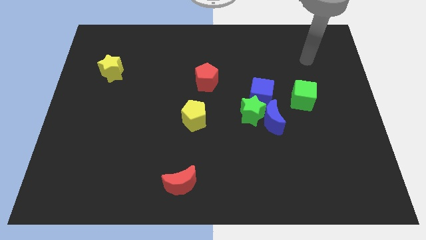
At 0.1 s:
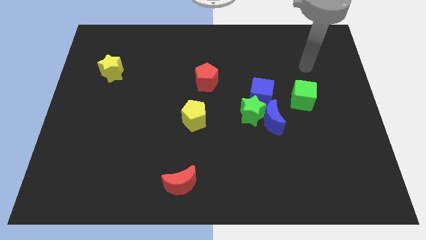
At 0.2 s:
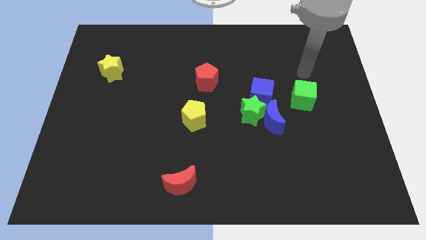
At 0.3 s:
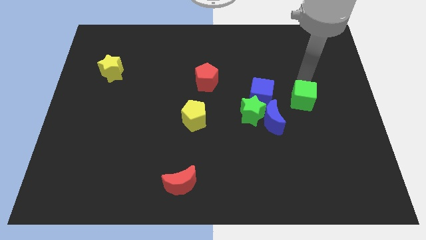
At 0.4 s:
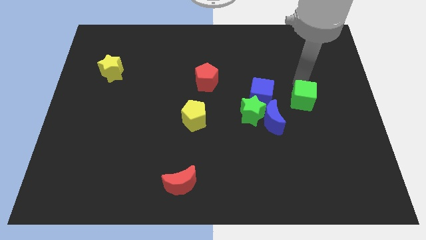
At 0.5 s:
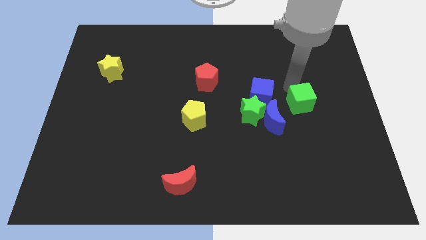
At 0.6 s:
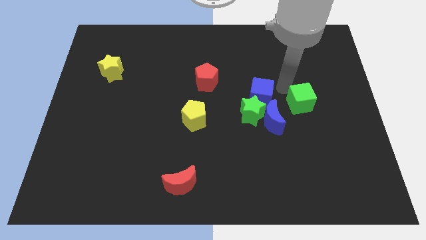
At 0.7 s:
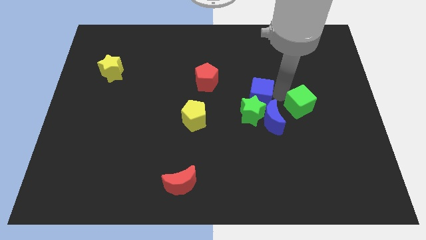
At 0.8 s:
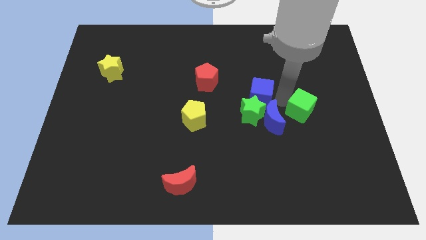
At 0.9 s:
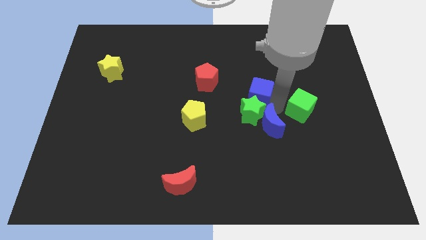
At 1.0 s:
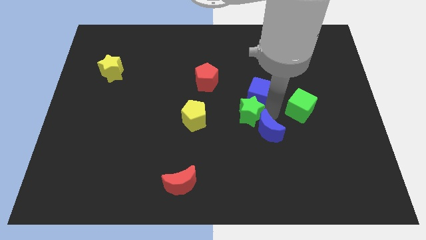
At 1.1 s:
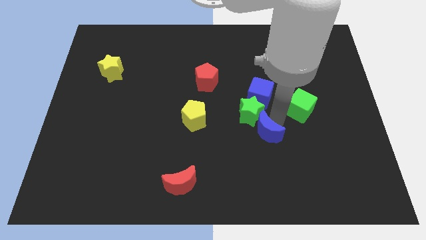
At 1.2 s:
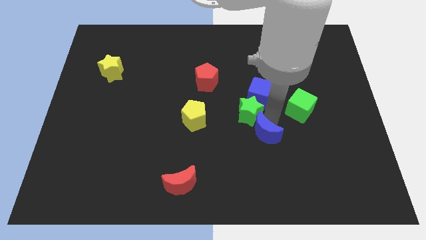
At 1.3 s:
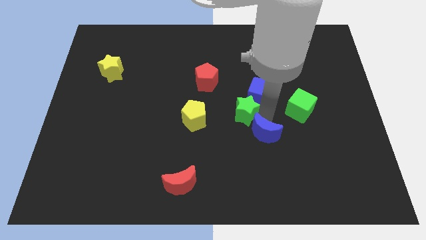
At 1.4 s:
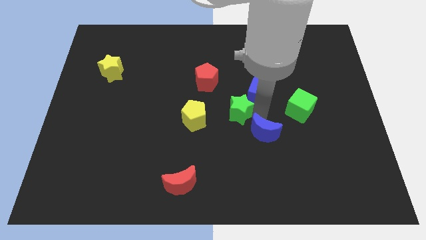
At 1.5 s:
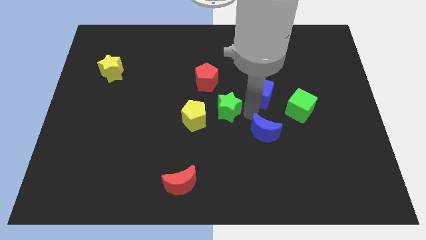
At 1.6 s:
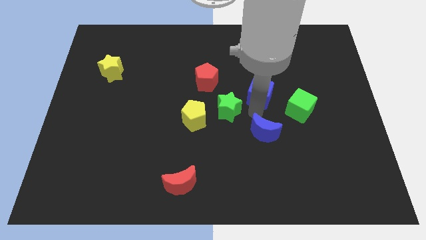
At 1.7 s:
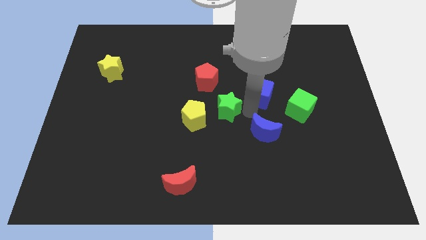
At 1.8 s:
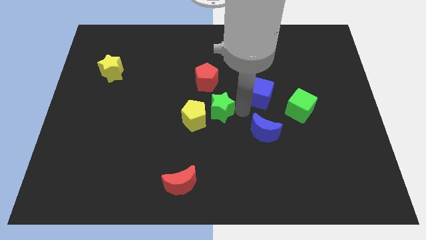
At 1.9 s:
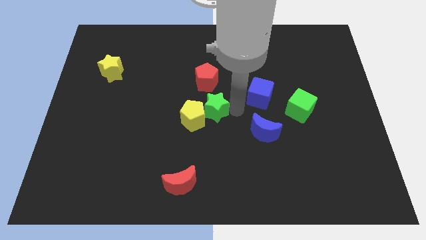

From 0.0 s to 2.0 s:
separate the green star from the blue moon and blue cube

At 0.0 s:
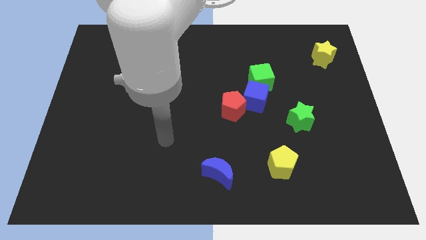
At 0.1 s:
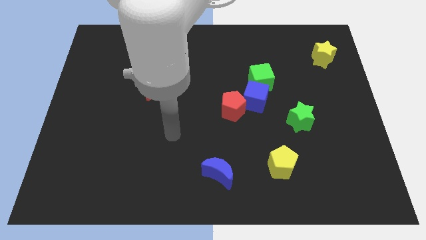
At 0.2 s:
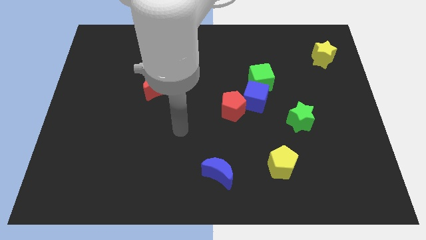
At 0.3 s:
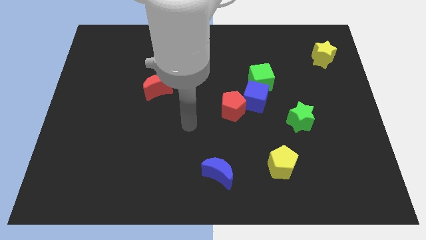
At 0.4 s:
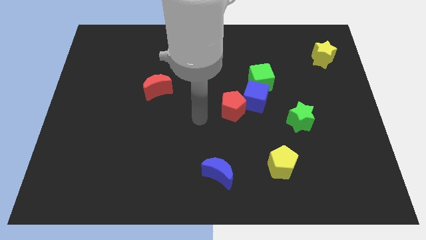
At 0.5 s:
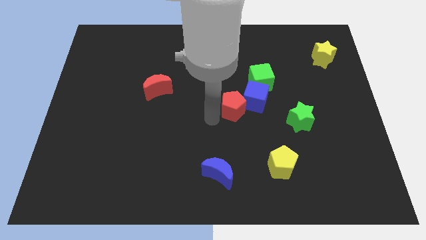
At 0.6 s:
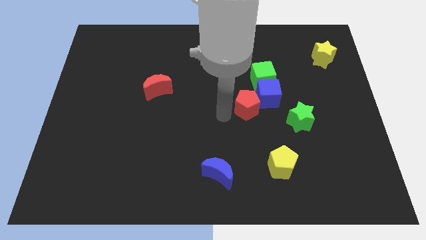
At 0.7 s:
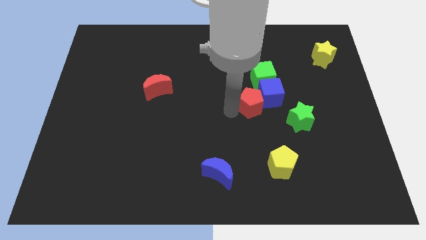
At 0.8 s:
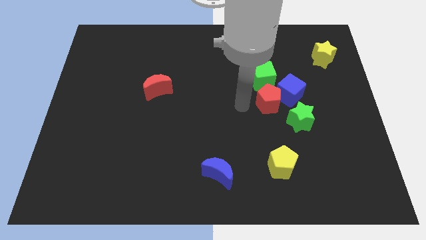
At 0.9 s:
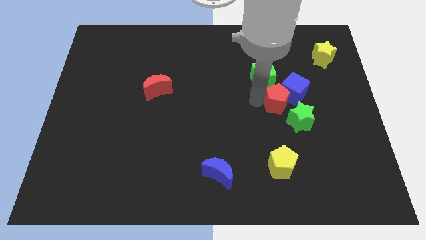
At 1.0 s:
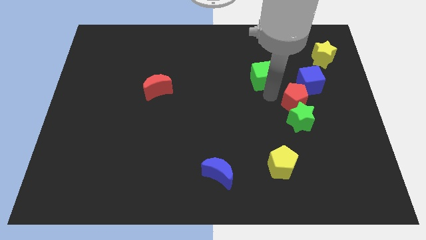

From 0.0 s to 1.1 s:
separate the green cube from the blue cube

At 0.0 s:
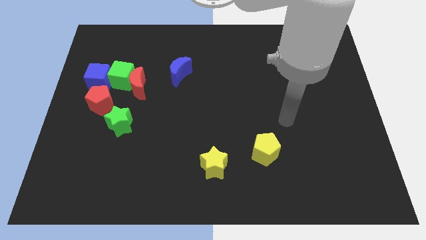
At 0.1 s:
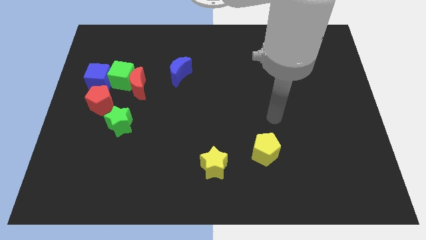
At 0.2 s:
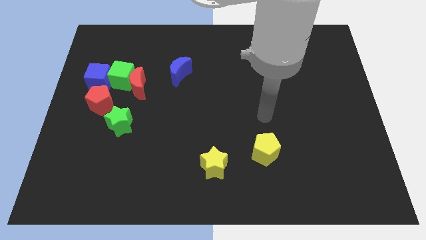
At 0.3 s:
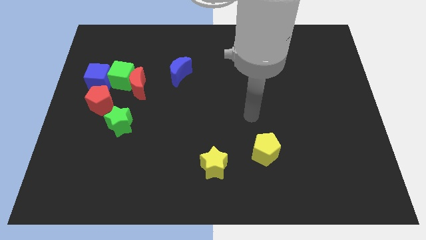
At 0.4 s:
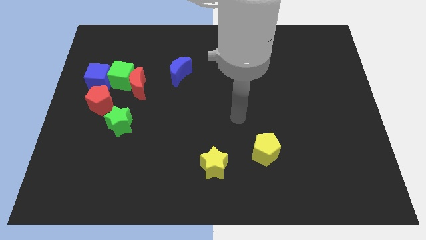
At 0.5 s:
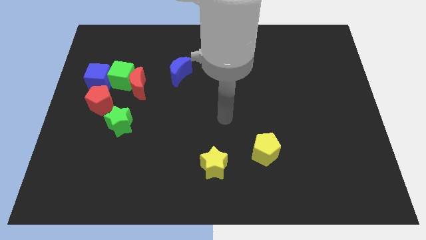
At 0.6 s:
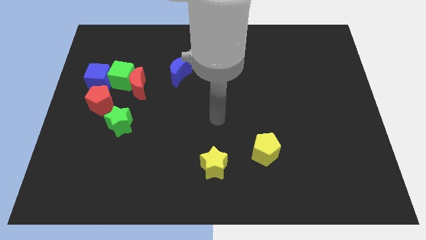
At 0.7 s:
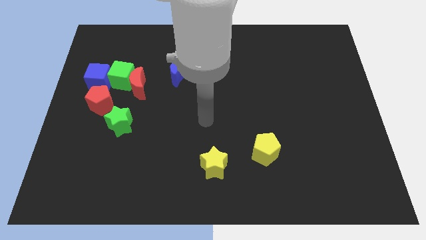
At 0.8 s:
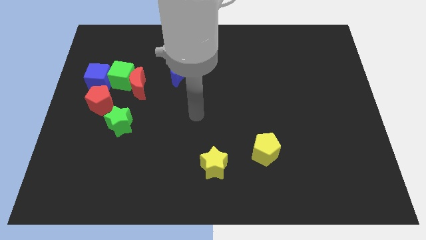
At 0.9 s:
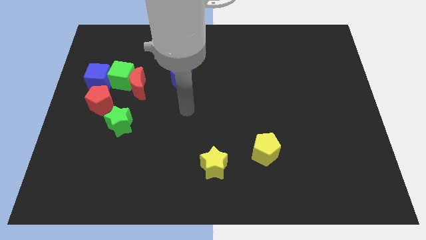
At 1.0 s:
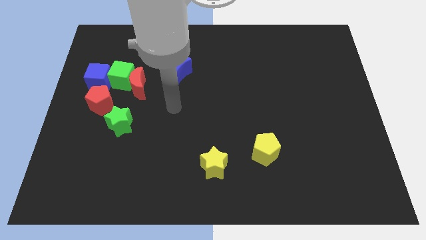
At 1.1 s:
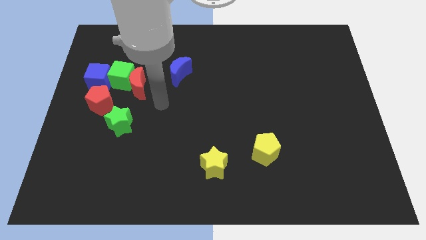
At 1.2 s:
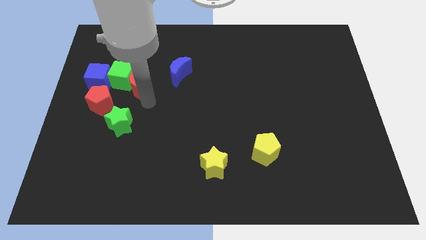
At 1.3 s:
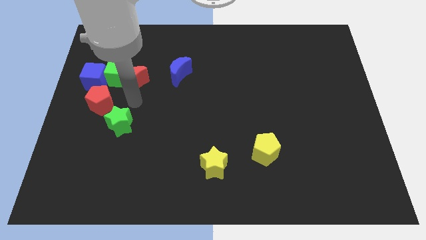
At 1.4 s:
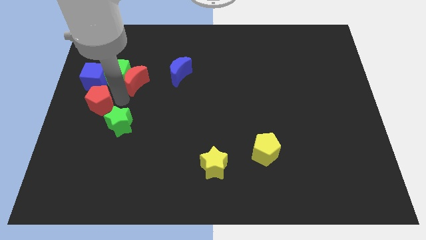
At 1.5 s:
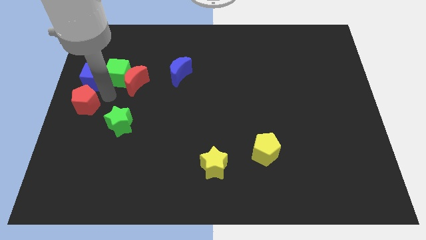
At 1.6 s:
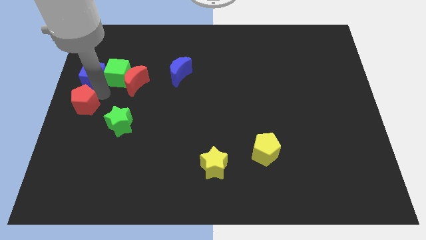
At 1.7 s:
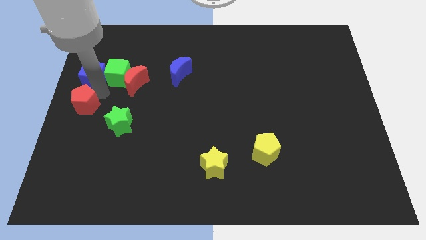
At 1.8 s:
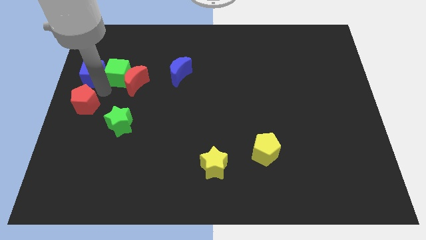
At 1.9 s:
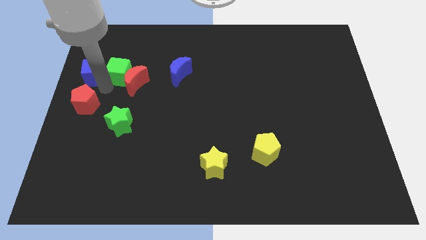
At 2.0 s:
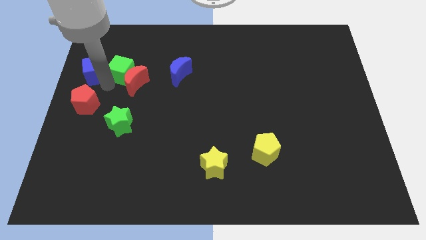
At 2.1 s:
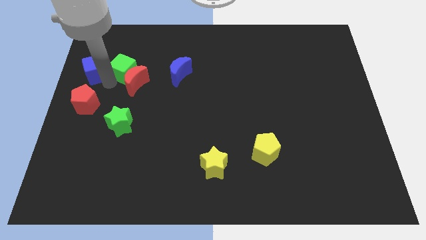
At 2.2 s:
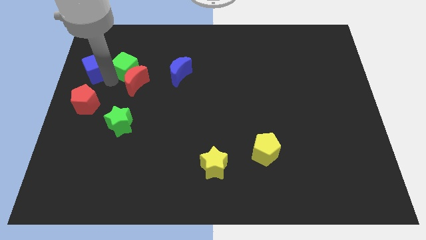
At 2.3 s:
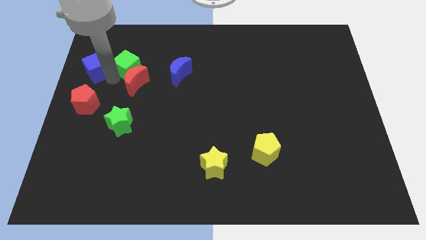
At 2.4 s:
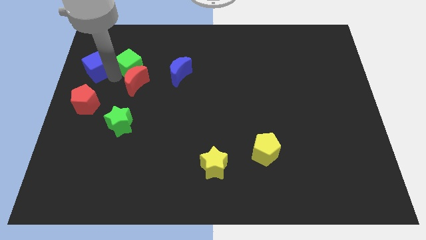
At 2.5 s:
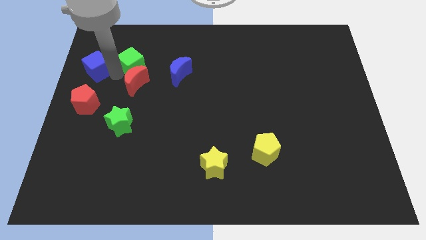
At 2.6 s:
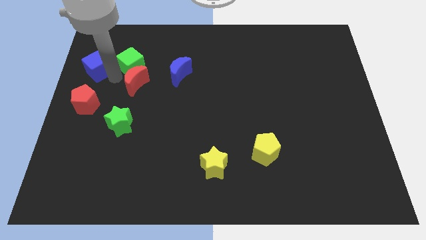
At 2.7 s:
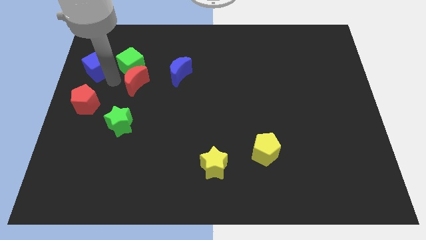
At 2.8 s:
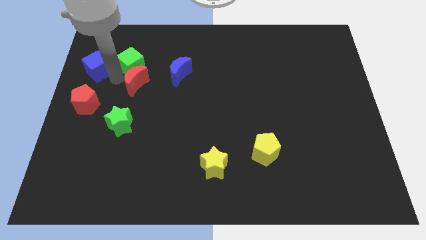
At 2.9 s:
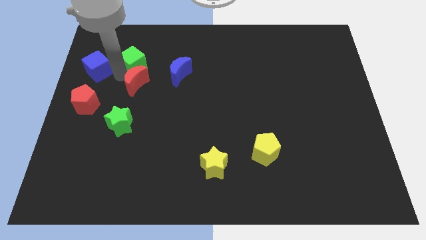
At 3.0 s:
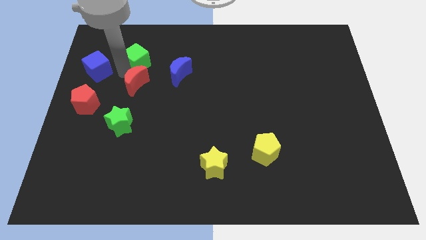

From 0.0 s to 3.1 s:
pull the green cube apart from the group

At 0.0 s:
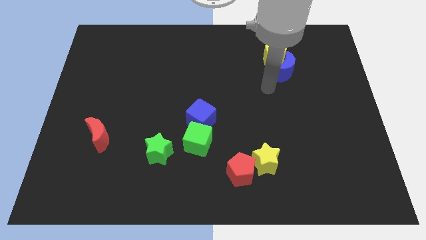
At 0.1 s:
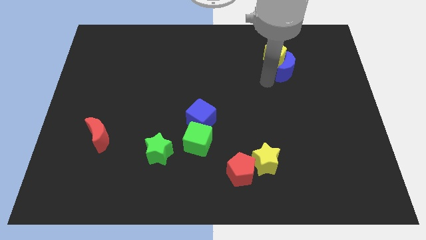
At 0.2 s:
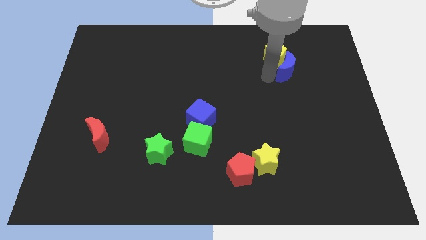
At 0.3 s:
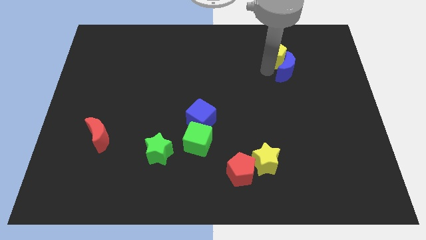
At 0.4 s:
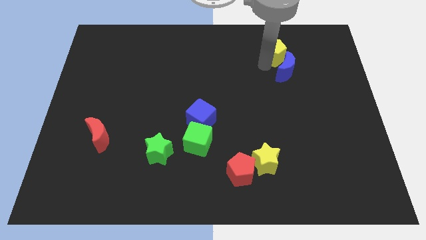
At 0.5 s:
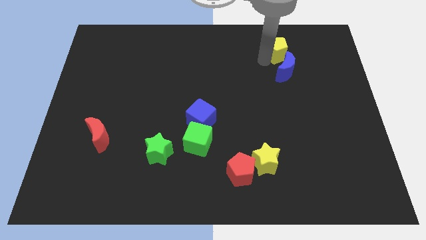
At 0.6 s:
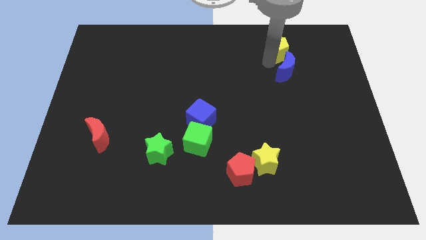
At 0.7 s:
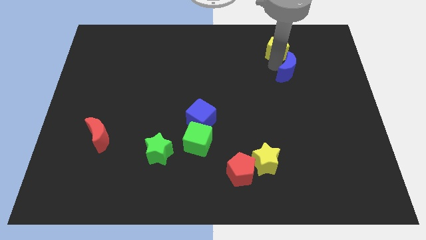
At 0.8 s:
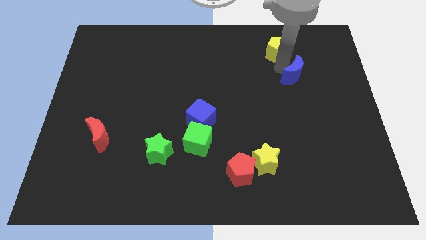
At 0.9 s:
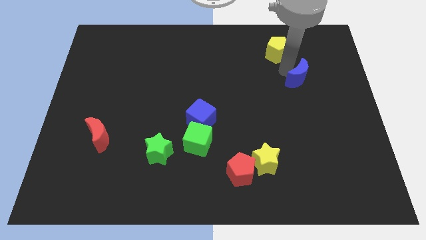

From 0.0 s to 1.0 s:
move the blue moon away from the yellow pentagon

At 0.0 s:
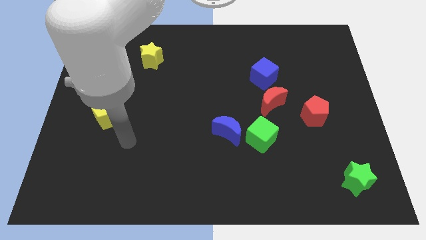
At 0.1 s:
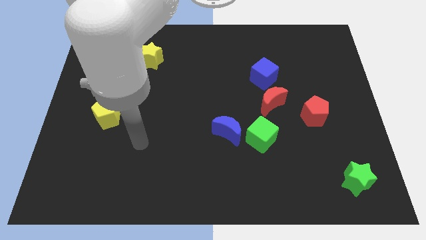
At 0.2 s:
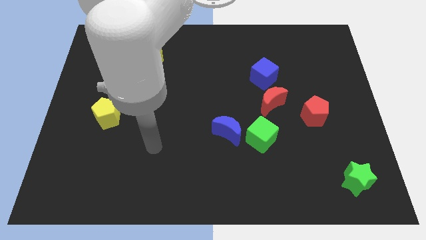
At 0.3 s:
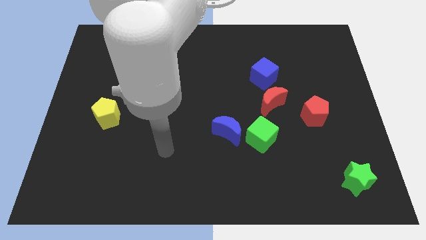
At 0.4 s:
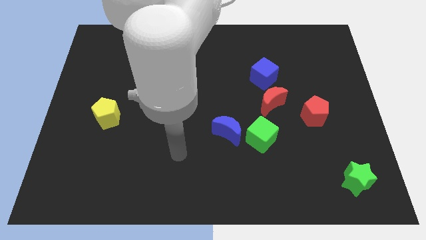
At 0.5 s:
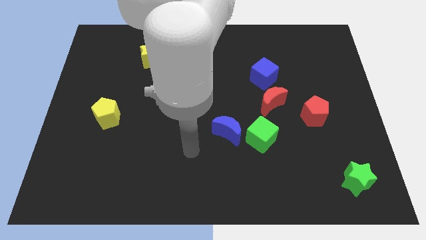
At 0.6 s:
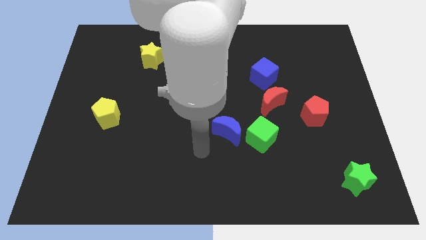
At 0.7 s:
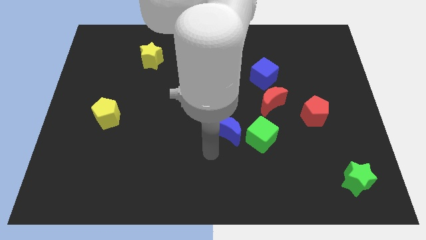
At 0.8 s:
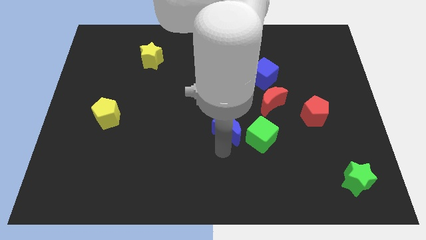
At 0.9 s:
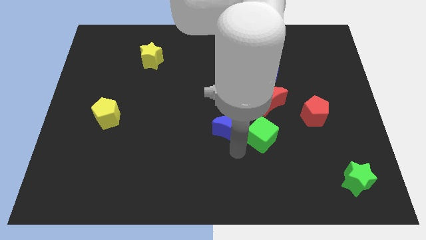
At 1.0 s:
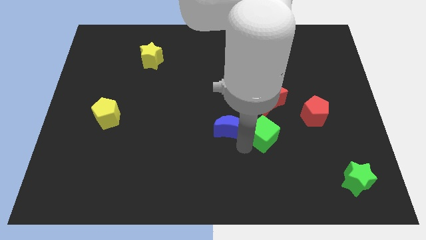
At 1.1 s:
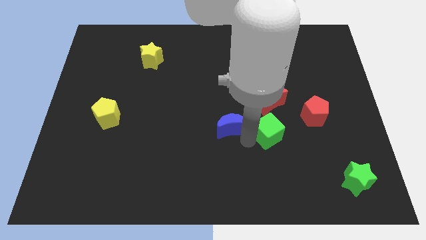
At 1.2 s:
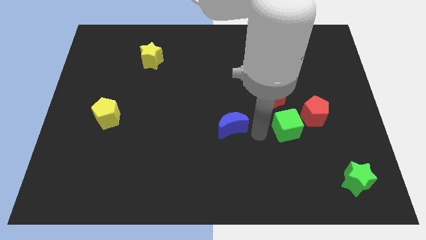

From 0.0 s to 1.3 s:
pull the blue moon apart from the green cube

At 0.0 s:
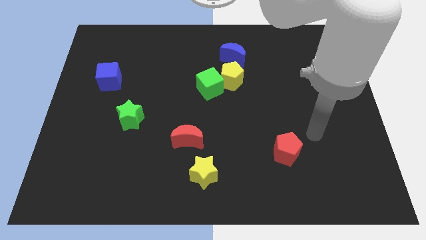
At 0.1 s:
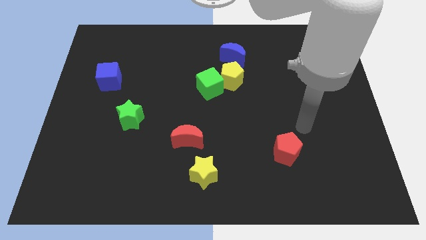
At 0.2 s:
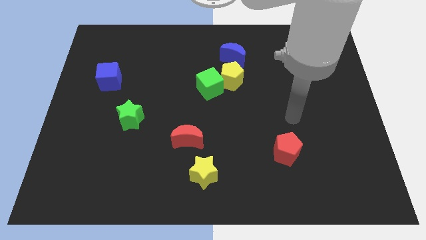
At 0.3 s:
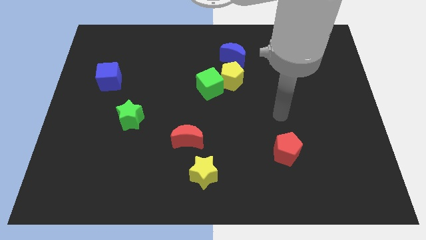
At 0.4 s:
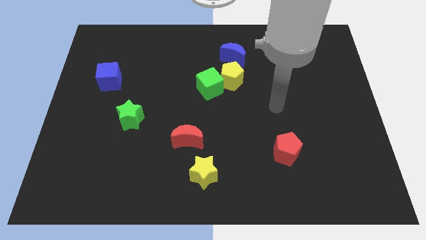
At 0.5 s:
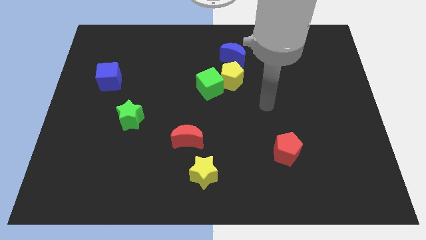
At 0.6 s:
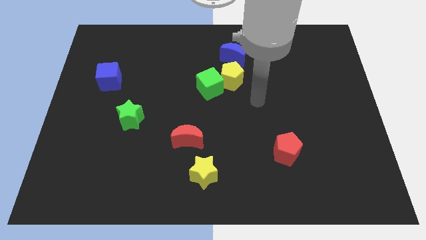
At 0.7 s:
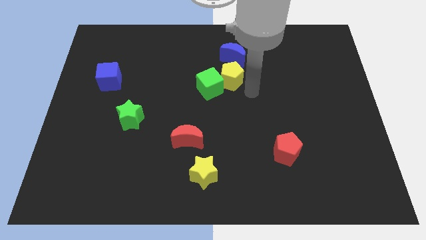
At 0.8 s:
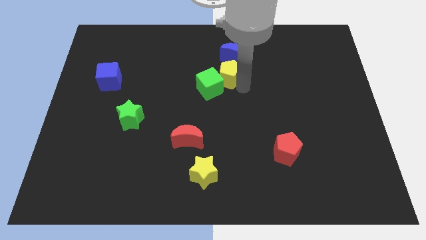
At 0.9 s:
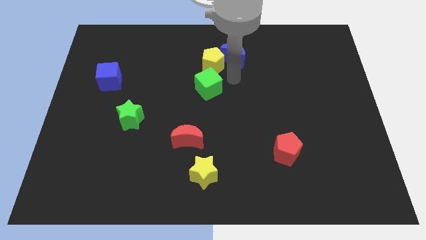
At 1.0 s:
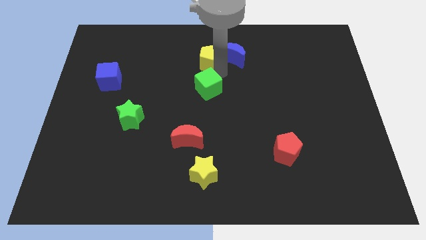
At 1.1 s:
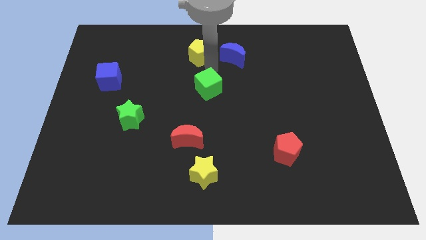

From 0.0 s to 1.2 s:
separate the green cube from the yellow pentagon
